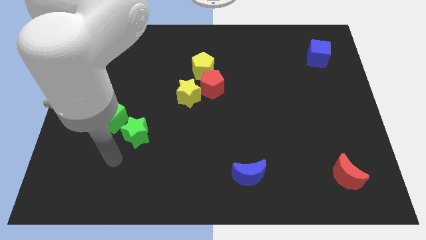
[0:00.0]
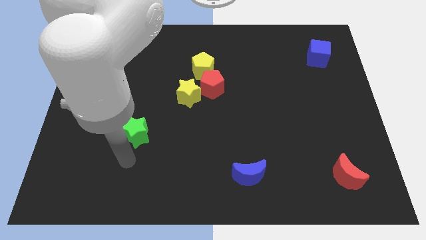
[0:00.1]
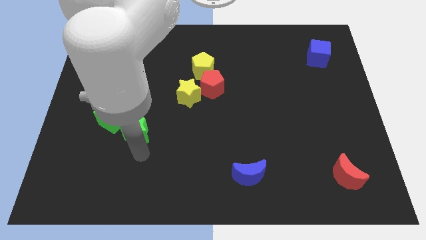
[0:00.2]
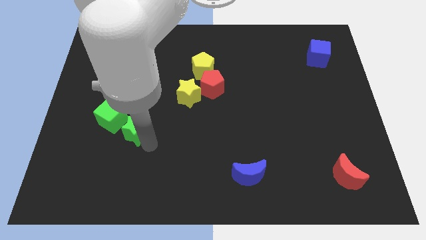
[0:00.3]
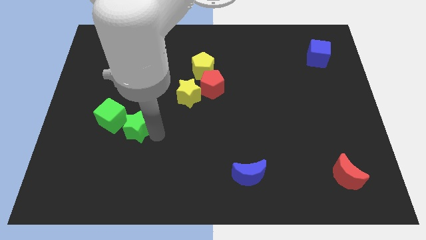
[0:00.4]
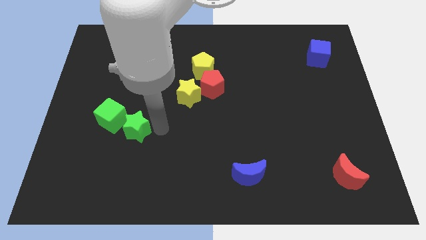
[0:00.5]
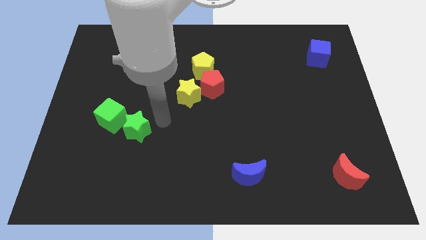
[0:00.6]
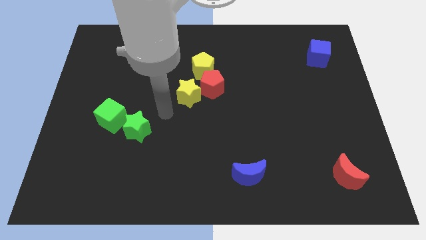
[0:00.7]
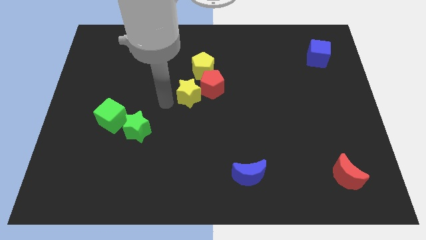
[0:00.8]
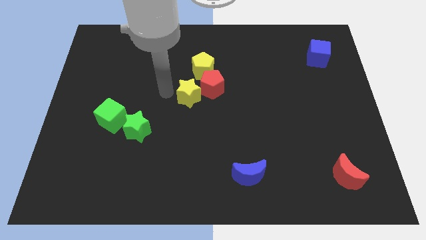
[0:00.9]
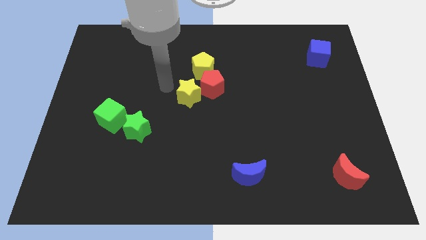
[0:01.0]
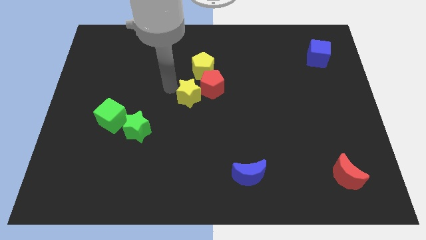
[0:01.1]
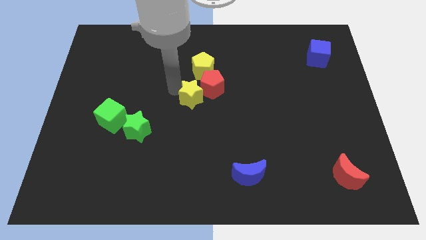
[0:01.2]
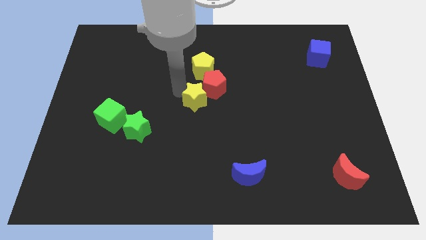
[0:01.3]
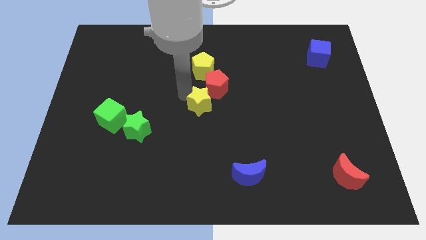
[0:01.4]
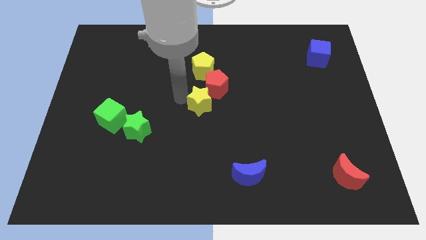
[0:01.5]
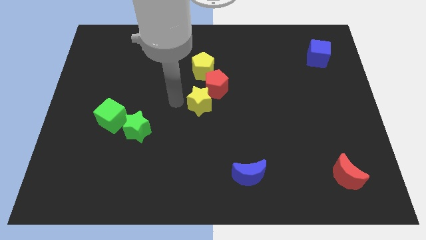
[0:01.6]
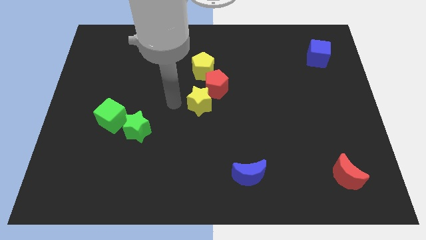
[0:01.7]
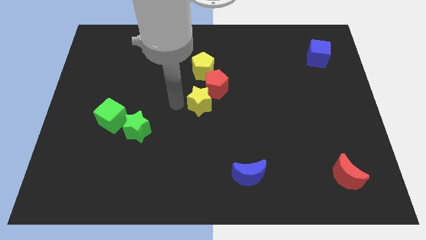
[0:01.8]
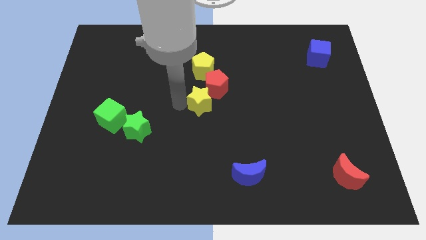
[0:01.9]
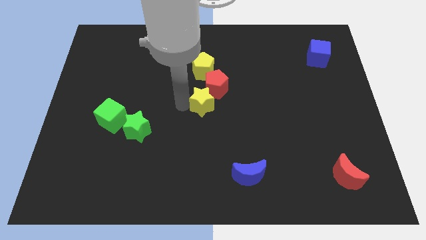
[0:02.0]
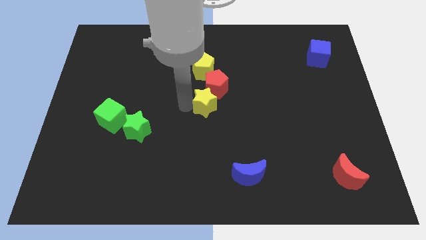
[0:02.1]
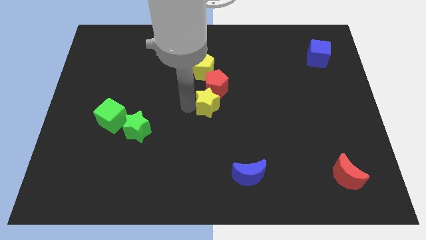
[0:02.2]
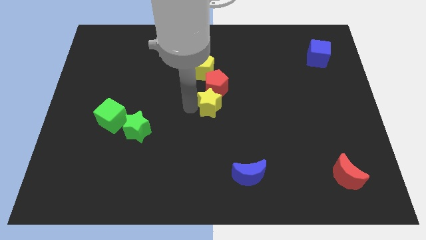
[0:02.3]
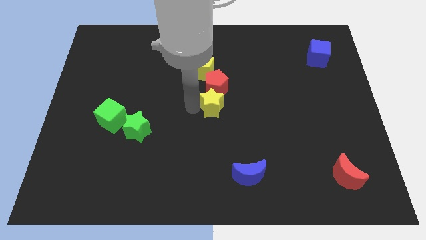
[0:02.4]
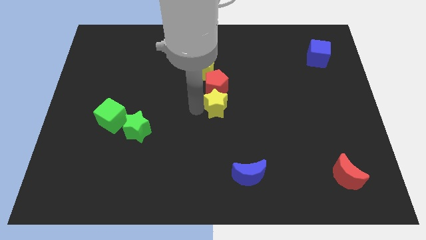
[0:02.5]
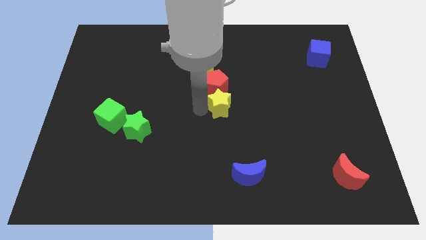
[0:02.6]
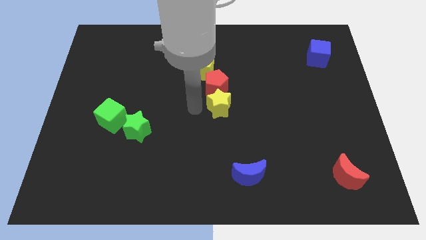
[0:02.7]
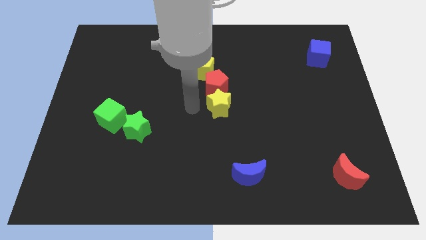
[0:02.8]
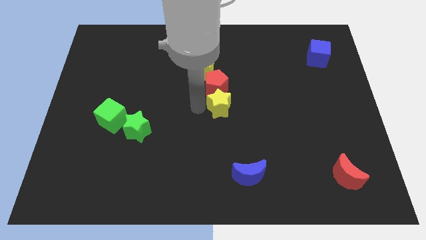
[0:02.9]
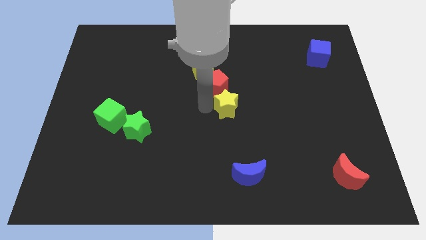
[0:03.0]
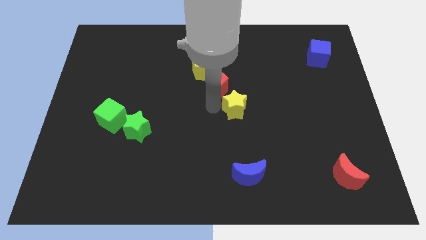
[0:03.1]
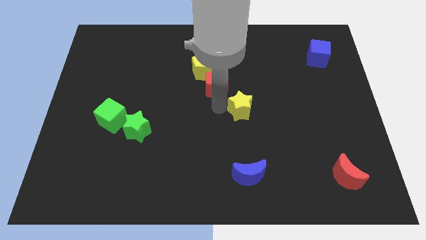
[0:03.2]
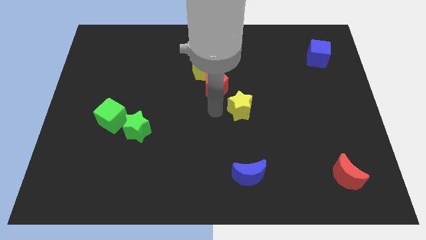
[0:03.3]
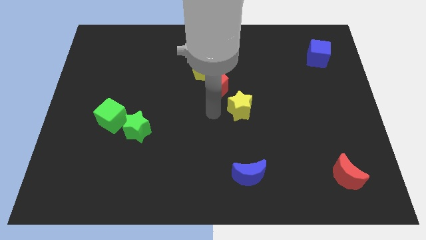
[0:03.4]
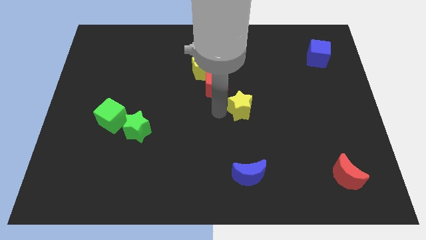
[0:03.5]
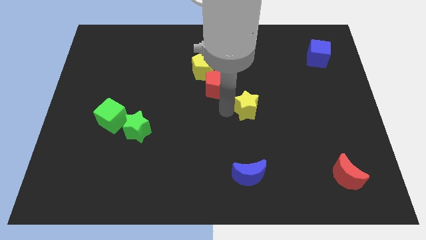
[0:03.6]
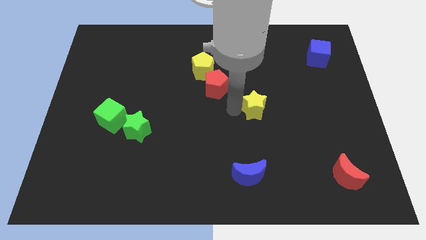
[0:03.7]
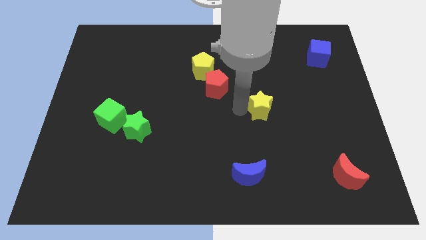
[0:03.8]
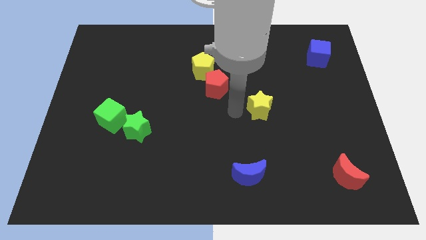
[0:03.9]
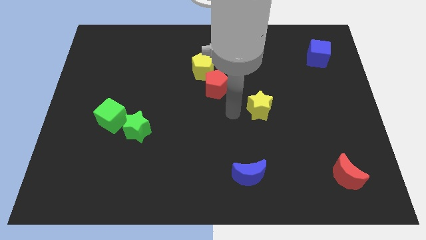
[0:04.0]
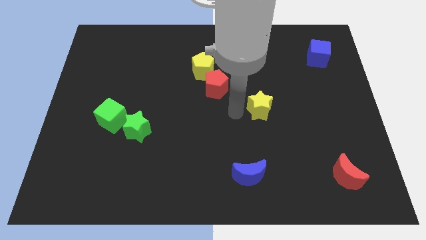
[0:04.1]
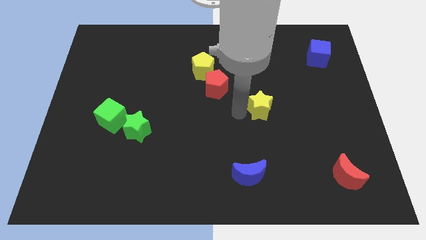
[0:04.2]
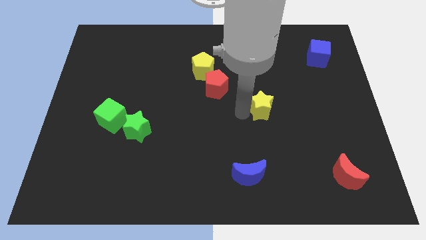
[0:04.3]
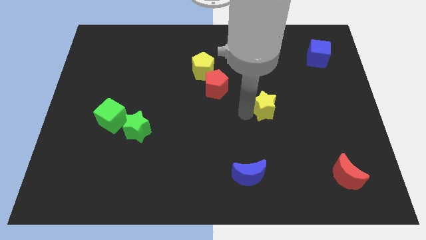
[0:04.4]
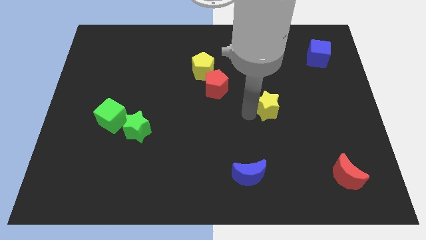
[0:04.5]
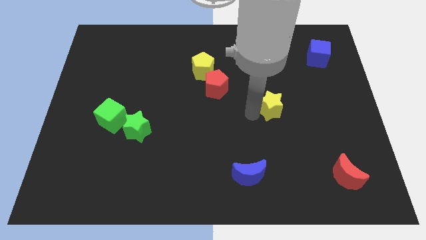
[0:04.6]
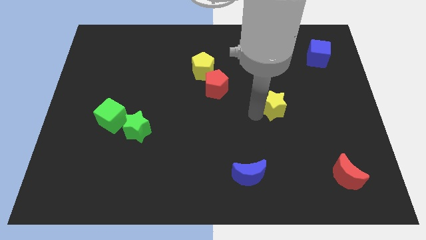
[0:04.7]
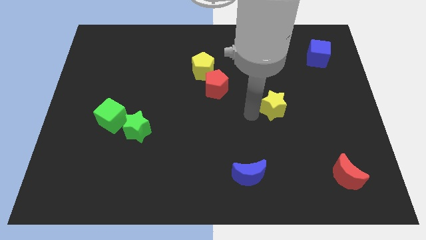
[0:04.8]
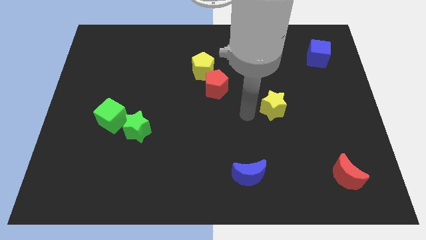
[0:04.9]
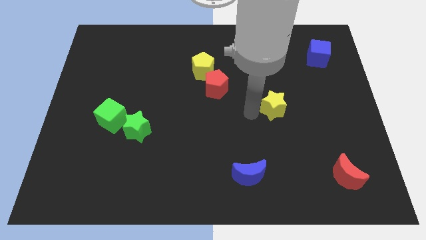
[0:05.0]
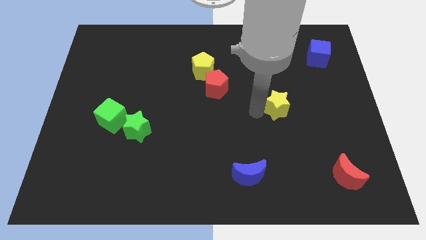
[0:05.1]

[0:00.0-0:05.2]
push the yellow star right

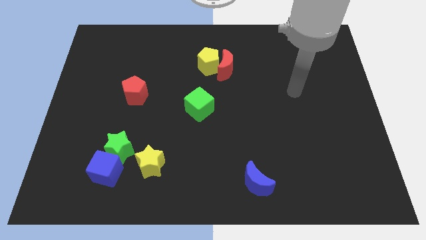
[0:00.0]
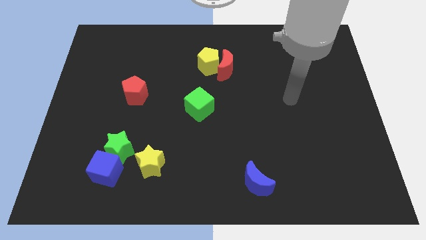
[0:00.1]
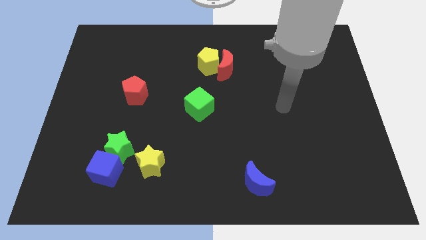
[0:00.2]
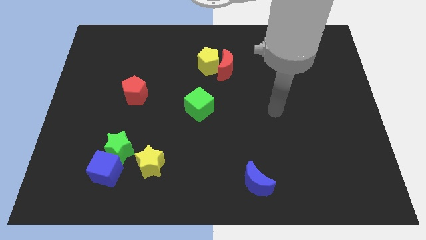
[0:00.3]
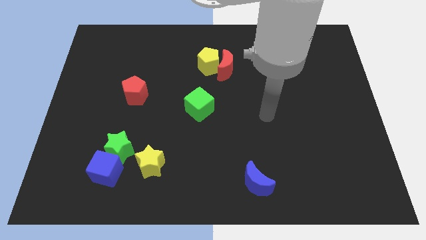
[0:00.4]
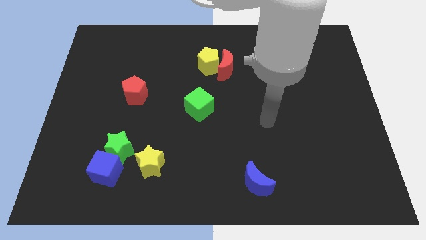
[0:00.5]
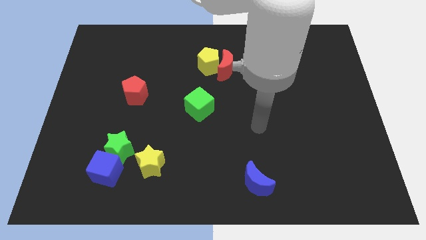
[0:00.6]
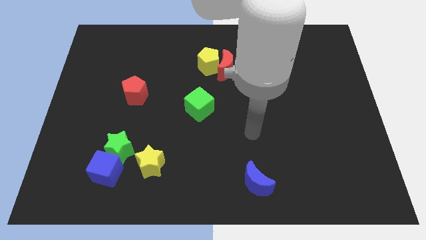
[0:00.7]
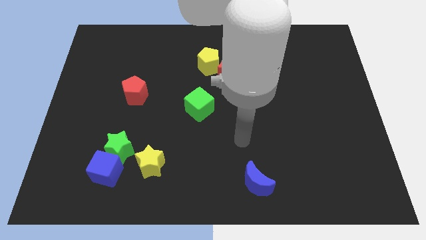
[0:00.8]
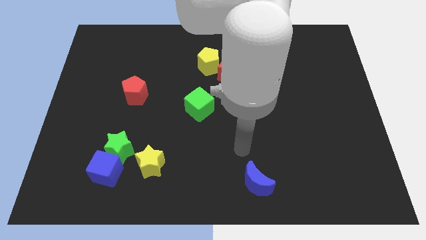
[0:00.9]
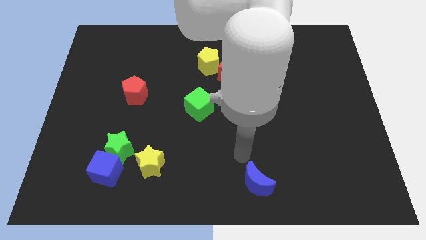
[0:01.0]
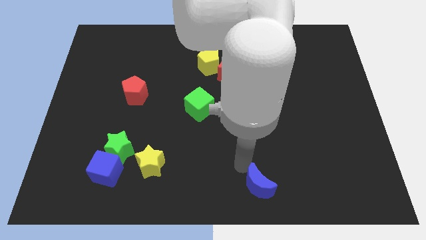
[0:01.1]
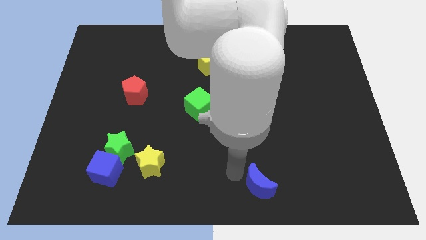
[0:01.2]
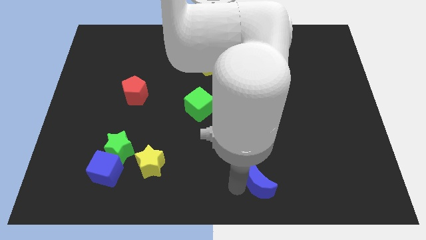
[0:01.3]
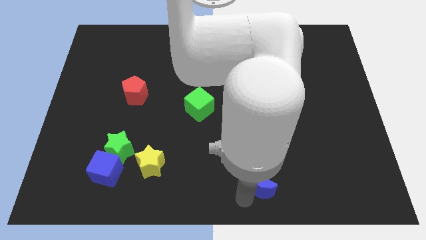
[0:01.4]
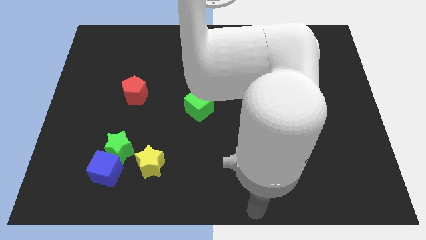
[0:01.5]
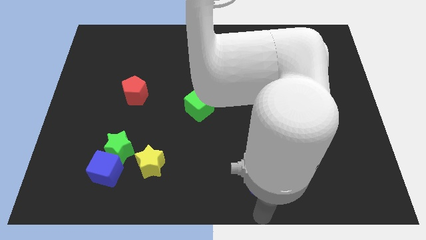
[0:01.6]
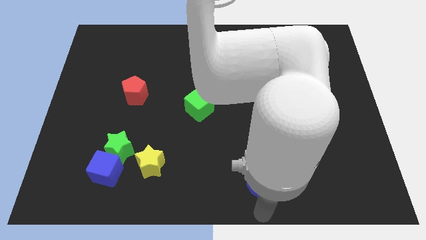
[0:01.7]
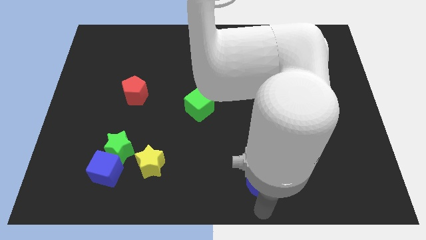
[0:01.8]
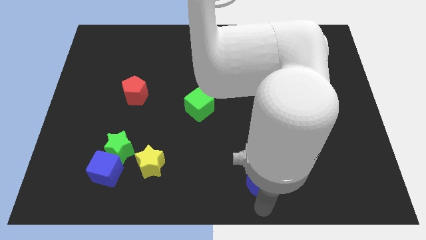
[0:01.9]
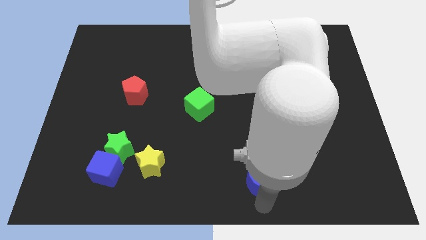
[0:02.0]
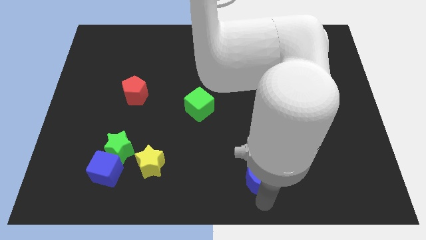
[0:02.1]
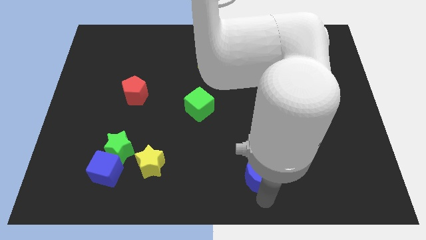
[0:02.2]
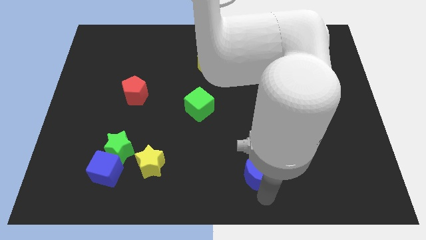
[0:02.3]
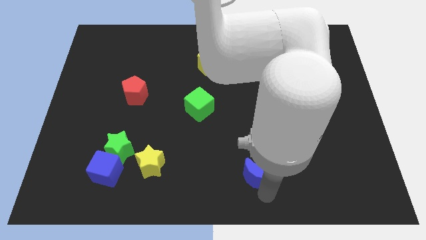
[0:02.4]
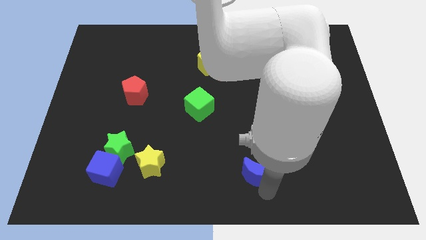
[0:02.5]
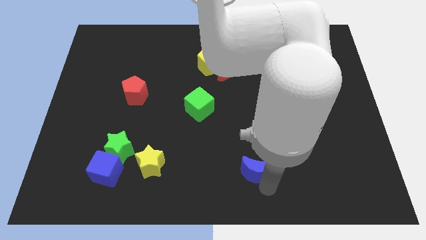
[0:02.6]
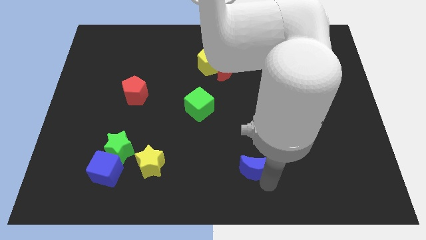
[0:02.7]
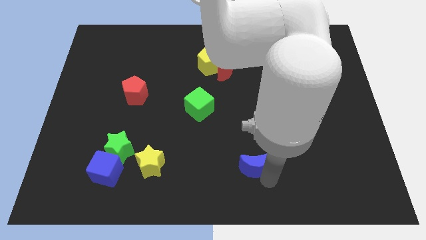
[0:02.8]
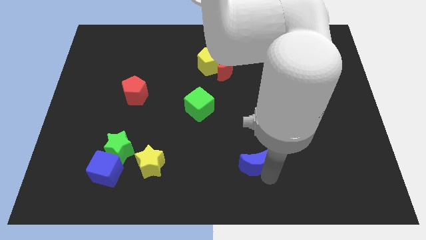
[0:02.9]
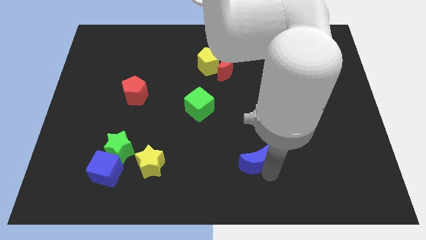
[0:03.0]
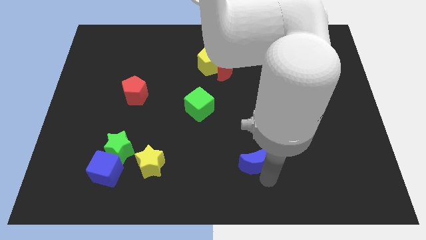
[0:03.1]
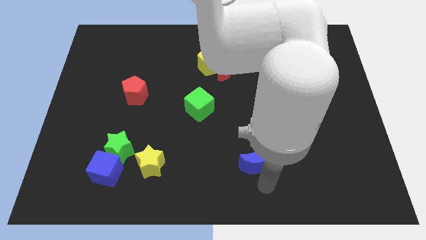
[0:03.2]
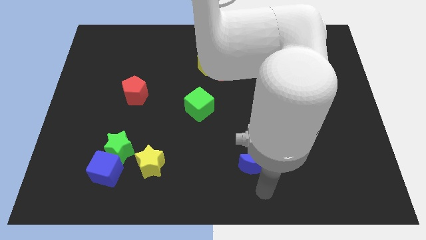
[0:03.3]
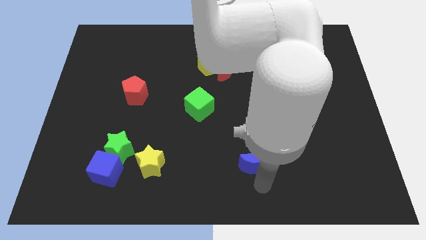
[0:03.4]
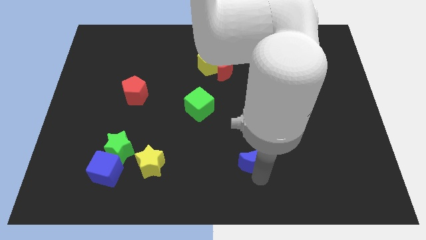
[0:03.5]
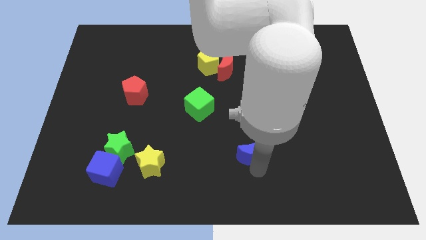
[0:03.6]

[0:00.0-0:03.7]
slightly move the blue moon upwards
